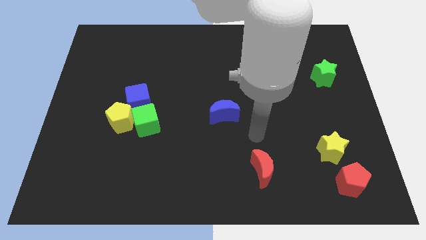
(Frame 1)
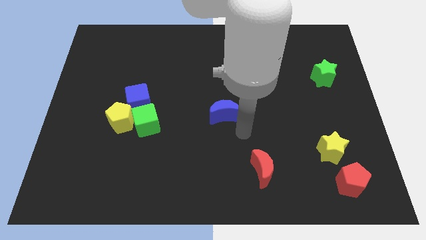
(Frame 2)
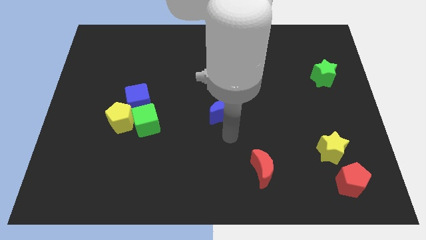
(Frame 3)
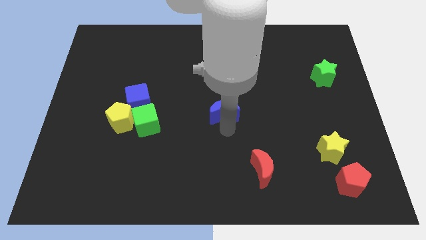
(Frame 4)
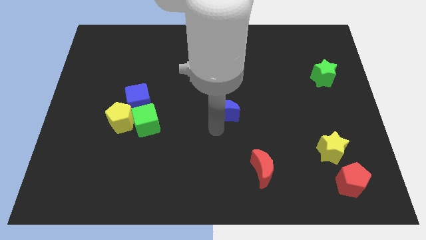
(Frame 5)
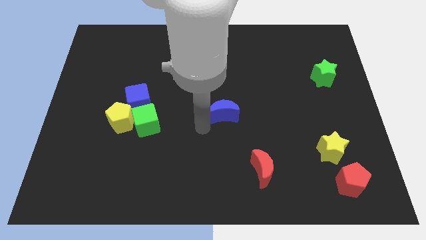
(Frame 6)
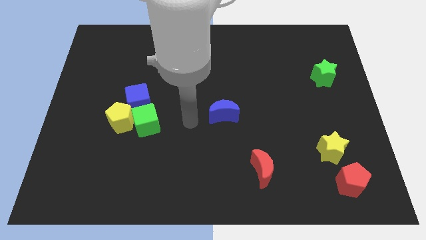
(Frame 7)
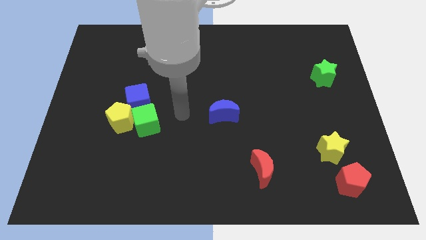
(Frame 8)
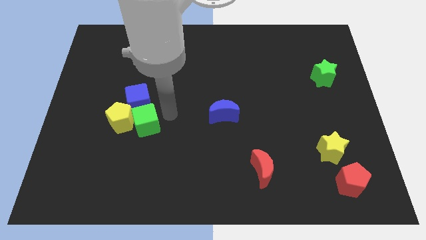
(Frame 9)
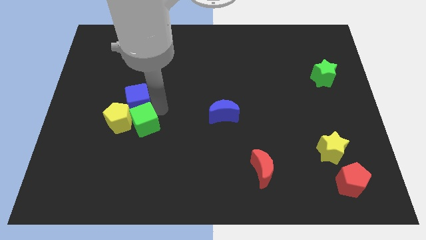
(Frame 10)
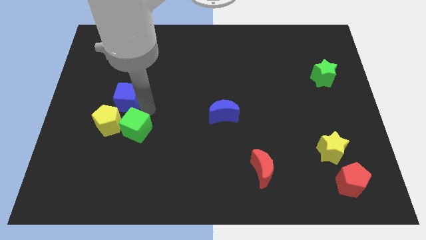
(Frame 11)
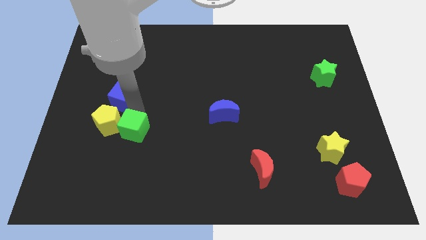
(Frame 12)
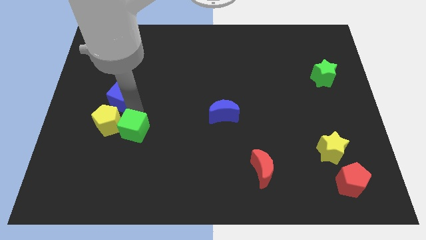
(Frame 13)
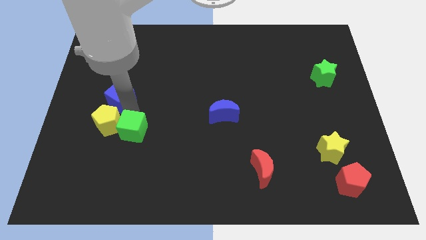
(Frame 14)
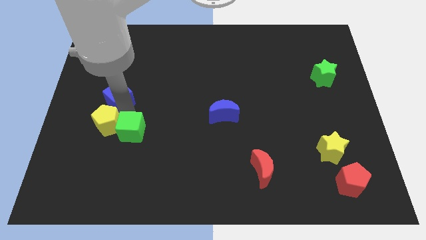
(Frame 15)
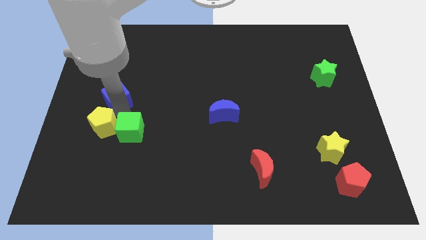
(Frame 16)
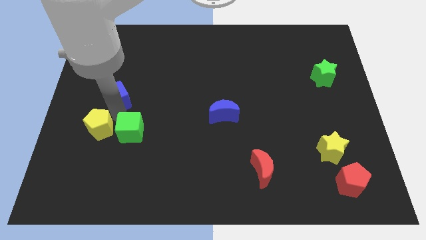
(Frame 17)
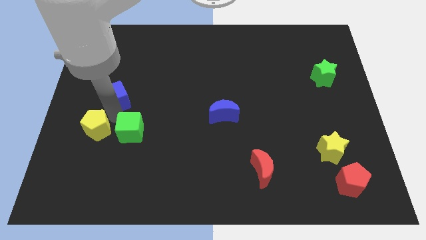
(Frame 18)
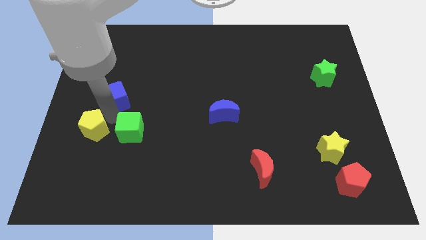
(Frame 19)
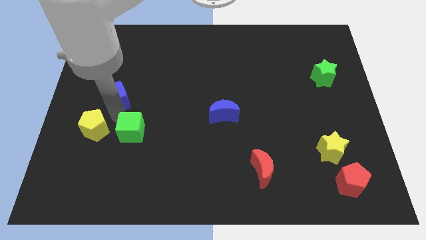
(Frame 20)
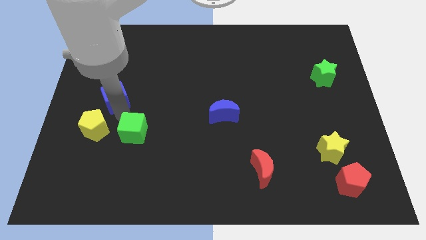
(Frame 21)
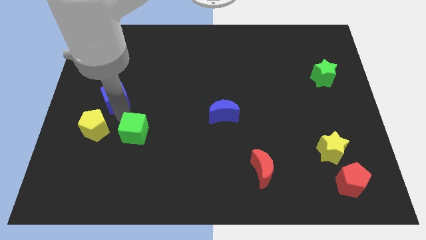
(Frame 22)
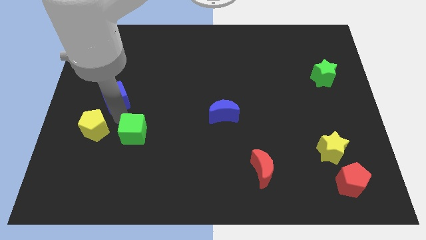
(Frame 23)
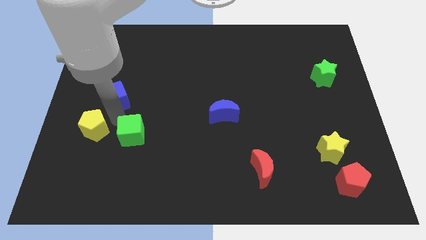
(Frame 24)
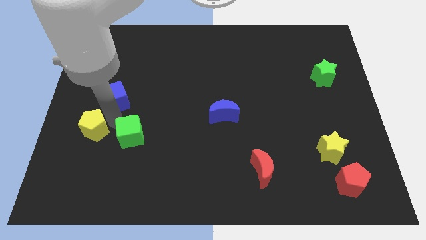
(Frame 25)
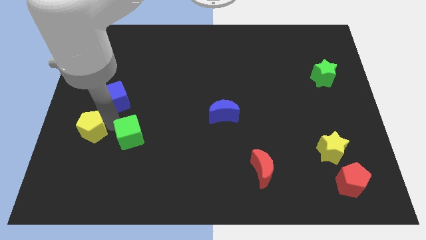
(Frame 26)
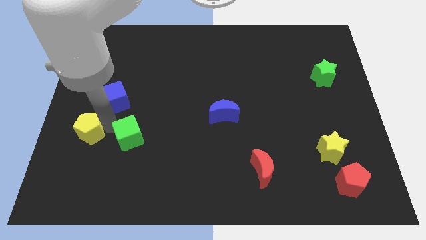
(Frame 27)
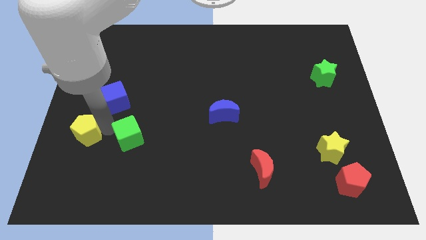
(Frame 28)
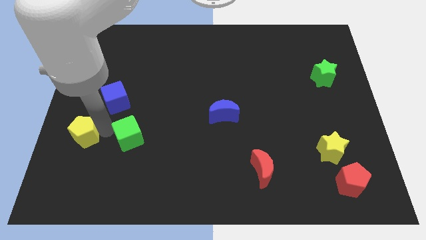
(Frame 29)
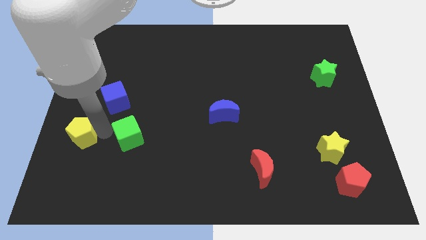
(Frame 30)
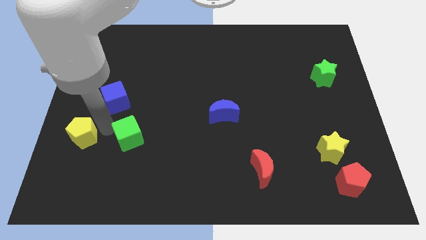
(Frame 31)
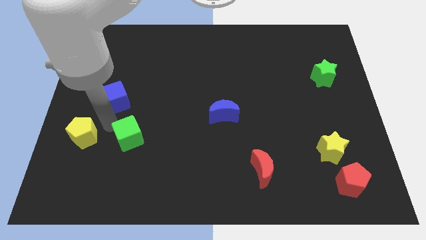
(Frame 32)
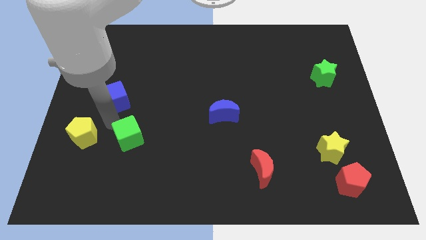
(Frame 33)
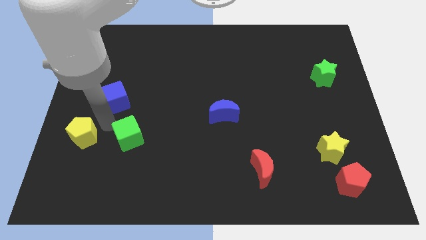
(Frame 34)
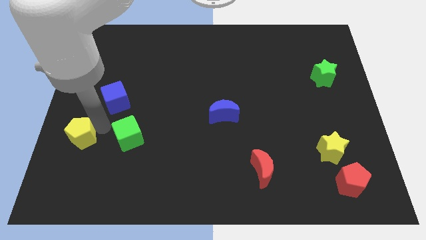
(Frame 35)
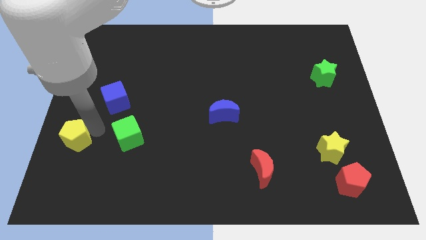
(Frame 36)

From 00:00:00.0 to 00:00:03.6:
pull the yellow pentagon apart from the green cube and blue cube

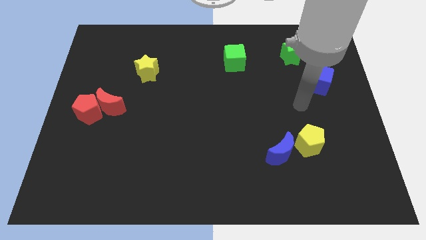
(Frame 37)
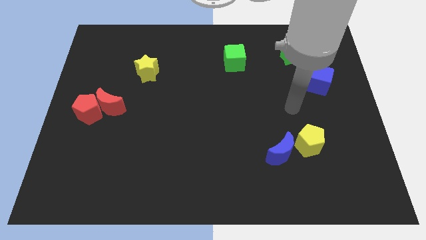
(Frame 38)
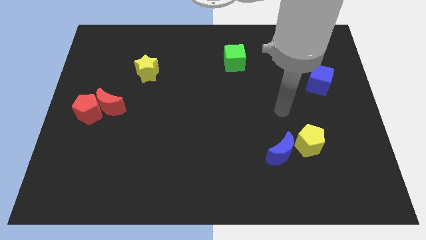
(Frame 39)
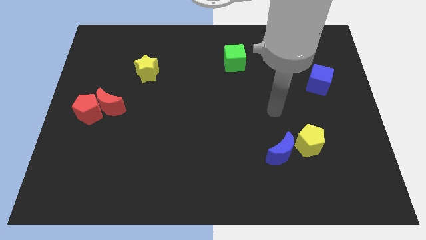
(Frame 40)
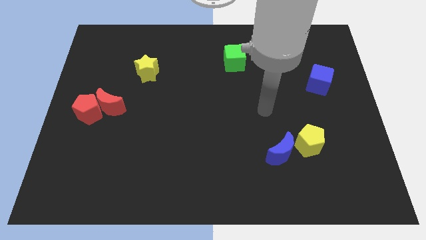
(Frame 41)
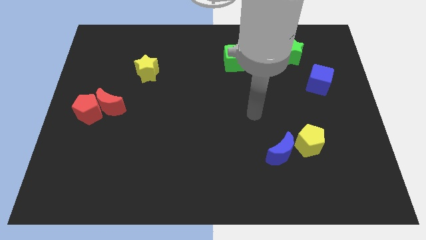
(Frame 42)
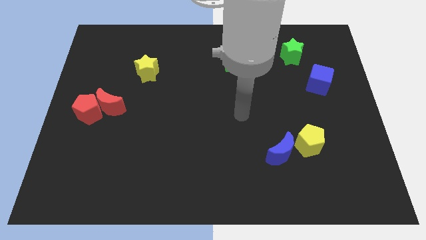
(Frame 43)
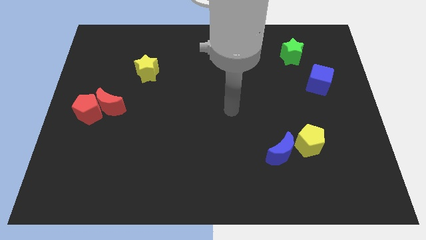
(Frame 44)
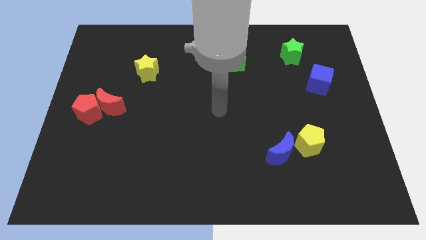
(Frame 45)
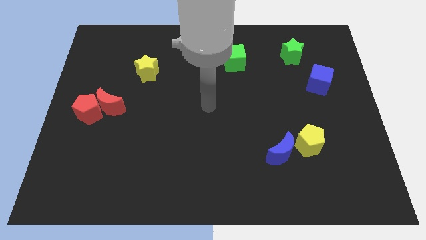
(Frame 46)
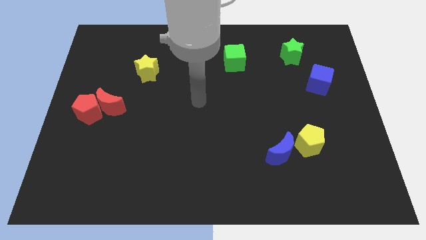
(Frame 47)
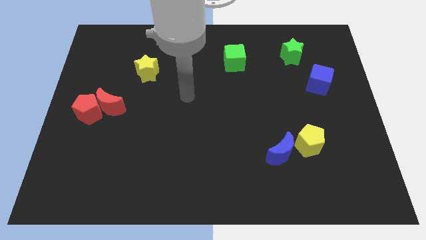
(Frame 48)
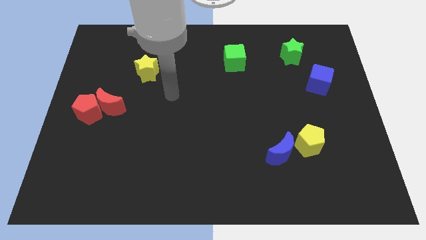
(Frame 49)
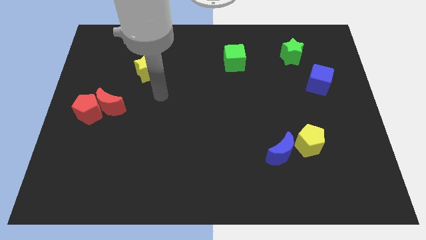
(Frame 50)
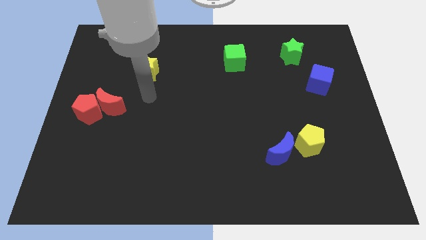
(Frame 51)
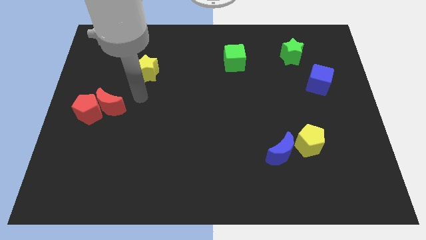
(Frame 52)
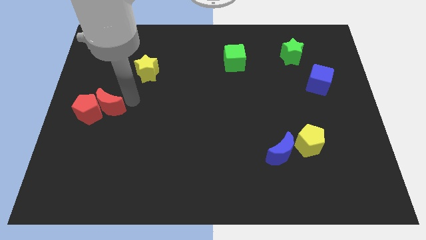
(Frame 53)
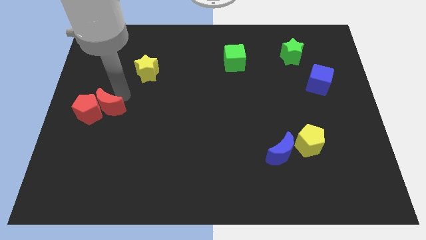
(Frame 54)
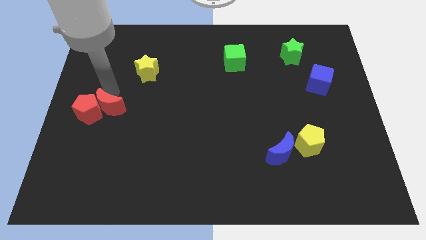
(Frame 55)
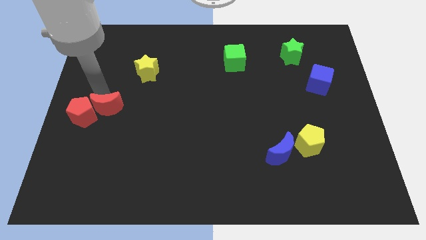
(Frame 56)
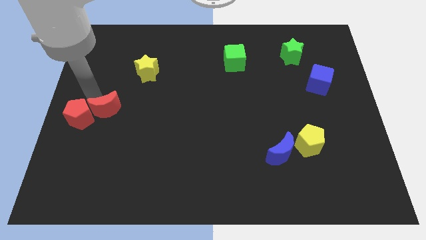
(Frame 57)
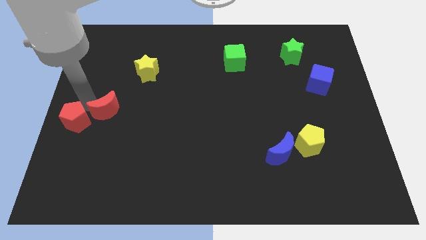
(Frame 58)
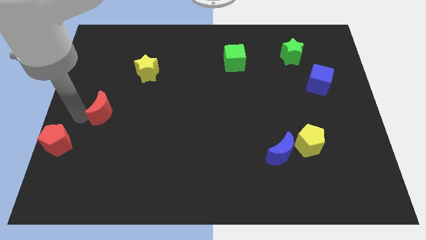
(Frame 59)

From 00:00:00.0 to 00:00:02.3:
separate the red moon from the red pentagon

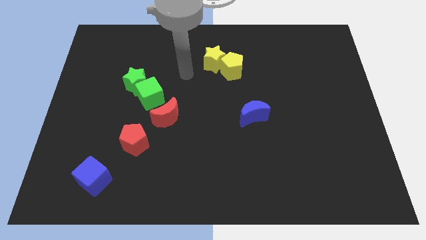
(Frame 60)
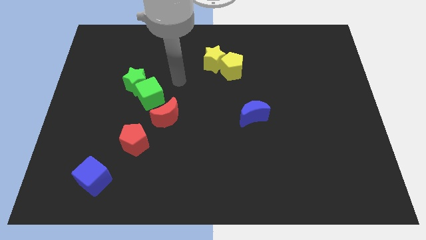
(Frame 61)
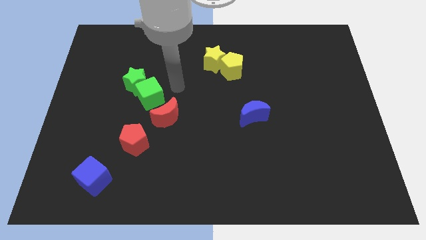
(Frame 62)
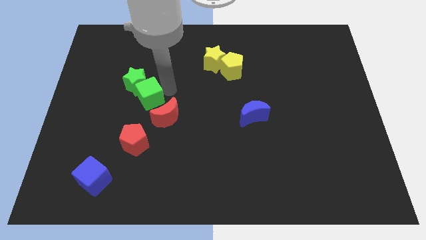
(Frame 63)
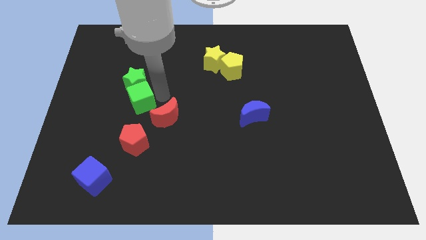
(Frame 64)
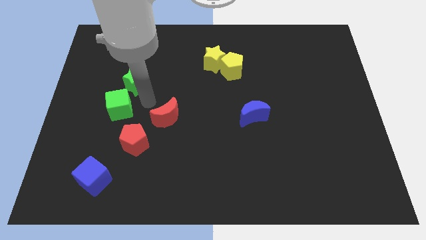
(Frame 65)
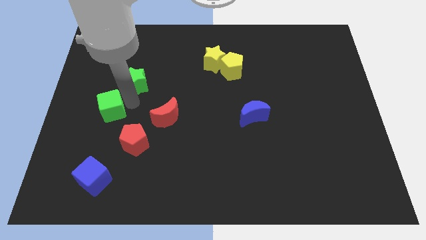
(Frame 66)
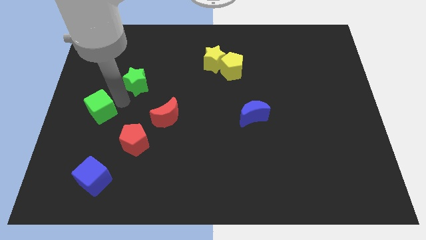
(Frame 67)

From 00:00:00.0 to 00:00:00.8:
move the green star away from the green cube

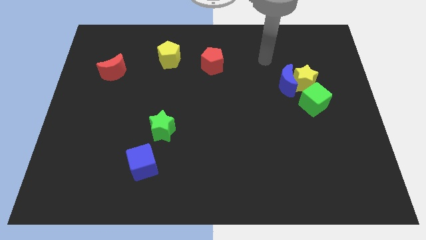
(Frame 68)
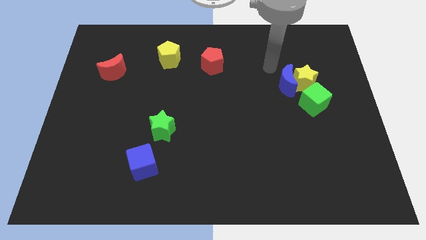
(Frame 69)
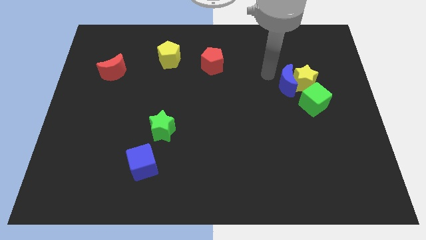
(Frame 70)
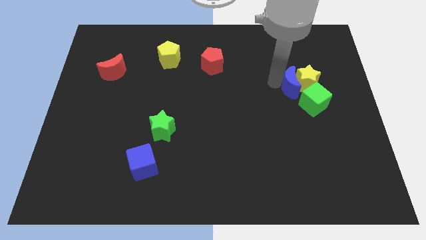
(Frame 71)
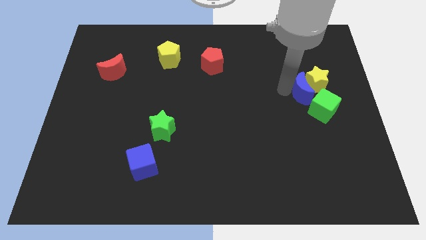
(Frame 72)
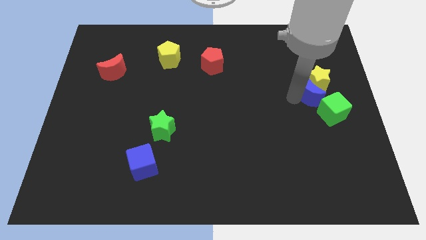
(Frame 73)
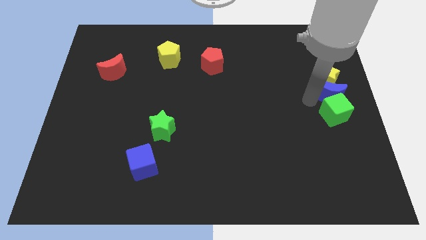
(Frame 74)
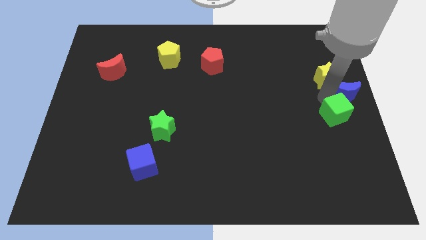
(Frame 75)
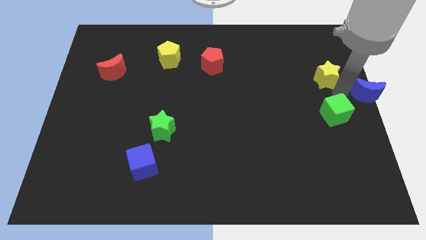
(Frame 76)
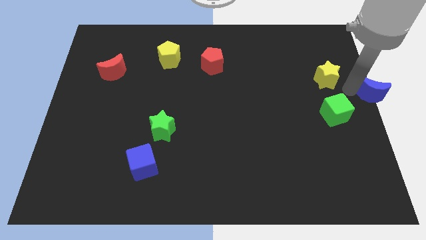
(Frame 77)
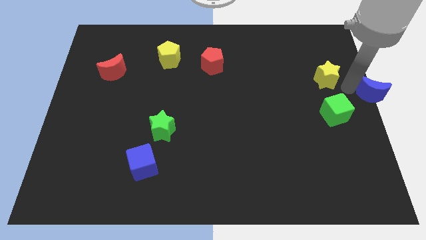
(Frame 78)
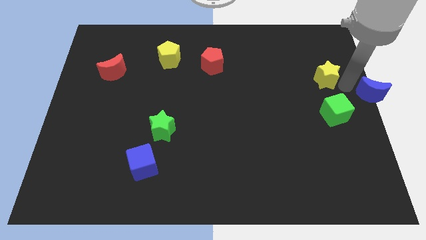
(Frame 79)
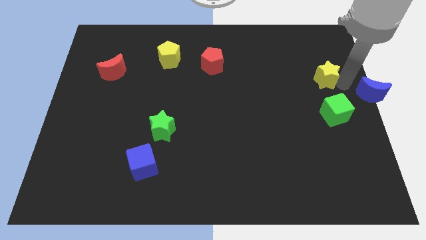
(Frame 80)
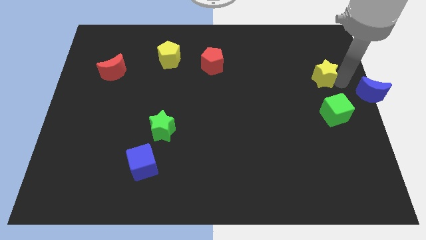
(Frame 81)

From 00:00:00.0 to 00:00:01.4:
separate the yellow star from the blue moon and green cube

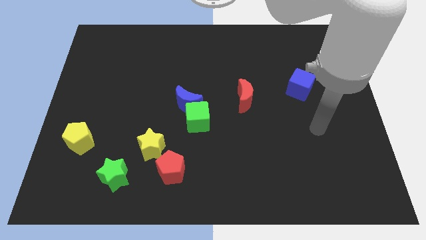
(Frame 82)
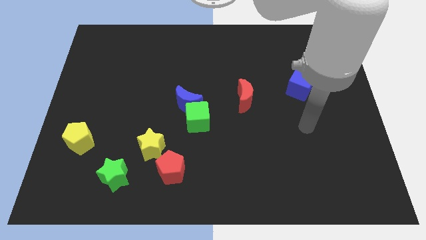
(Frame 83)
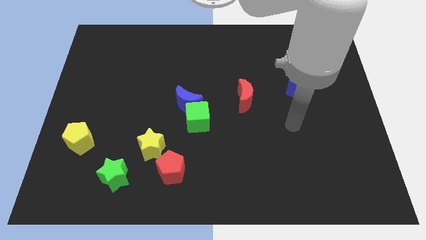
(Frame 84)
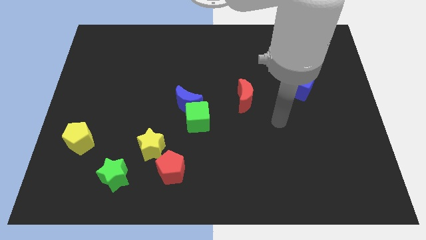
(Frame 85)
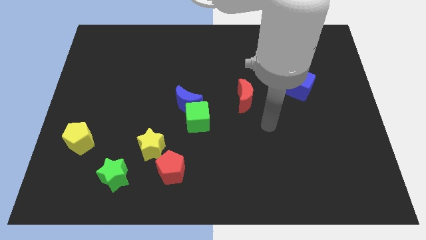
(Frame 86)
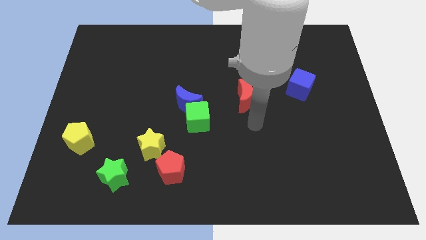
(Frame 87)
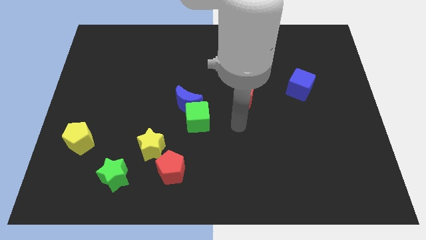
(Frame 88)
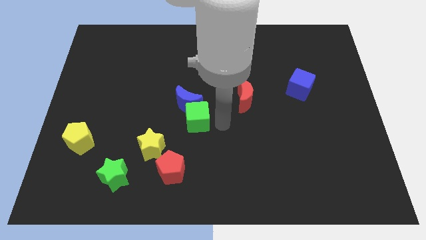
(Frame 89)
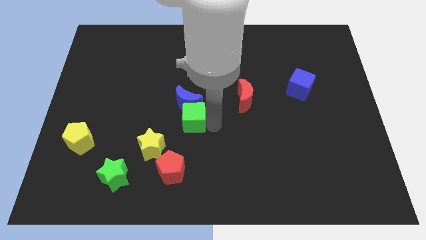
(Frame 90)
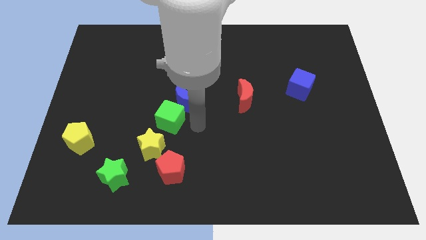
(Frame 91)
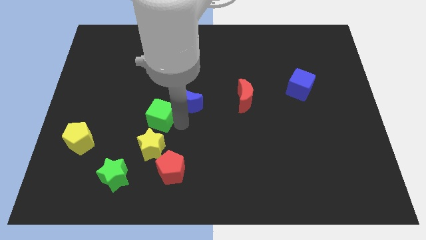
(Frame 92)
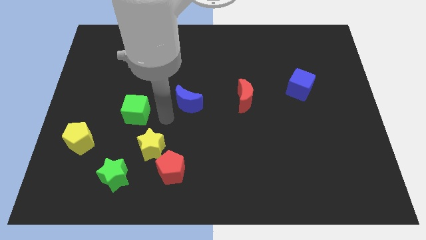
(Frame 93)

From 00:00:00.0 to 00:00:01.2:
pull the blue moon apart from the green cube
